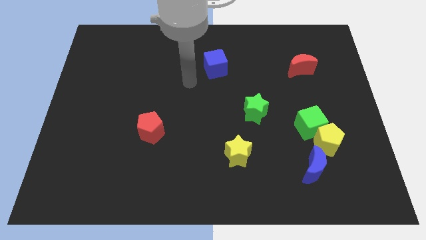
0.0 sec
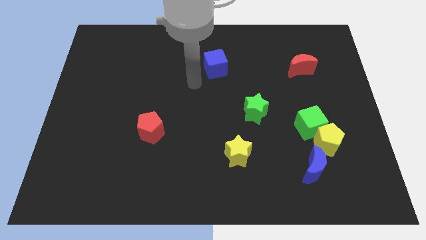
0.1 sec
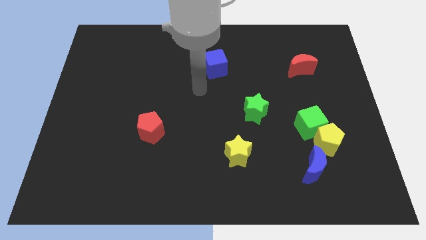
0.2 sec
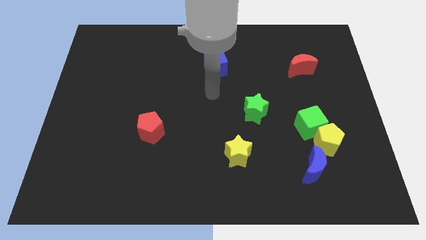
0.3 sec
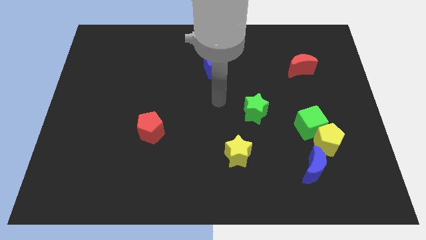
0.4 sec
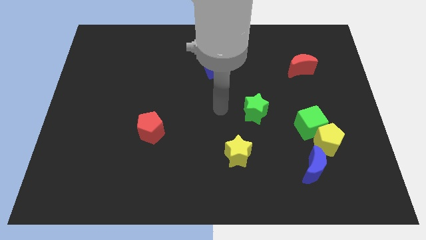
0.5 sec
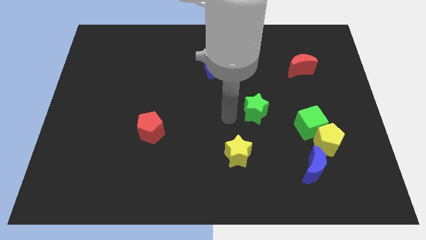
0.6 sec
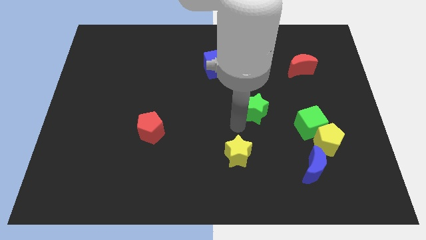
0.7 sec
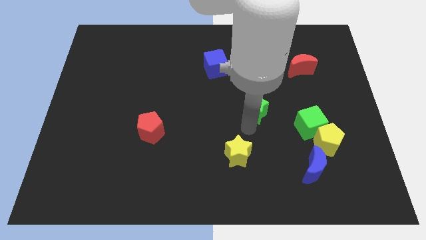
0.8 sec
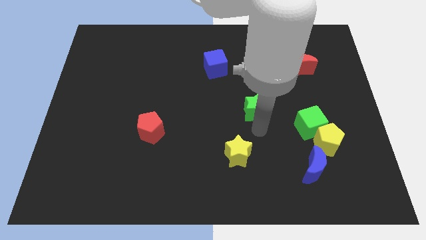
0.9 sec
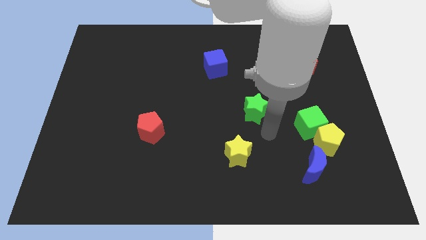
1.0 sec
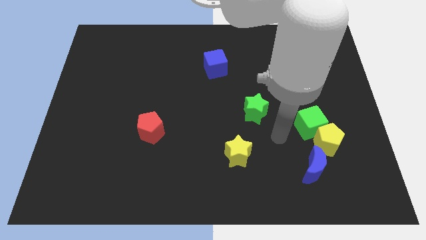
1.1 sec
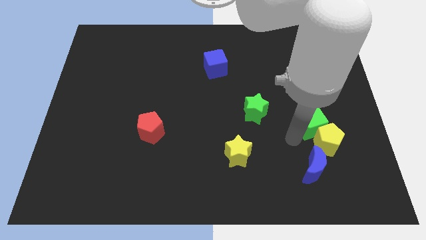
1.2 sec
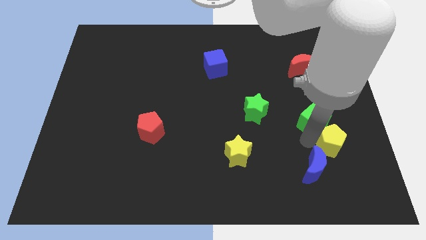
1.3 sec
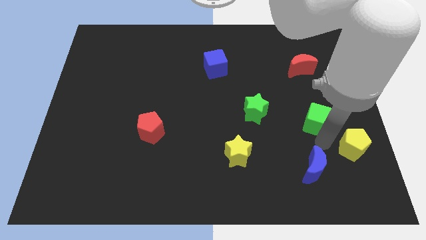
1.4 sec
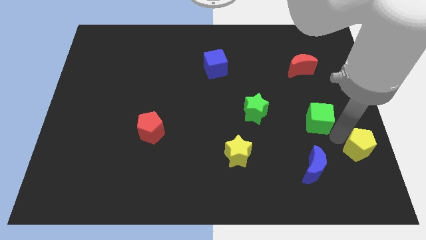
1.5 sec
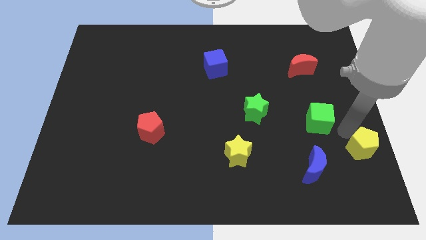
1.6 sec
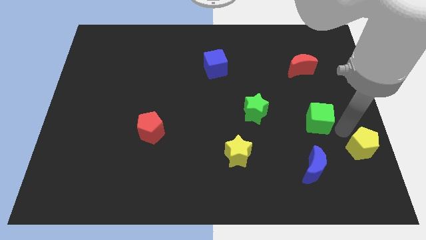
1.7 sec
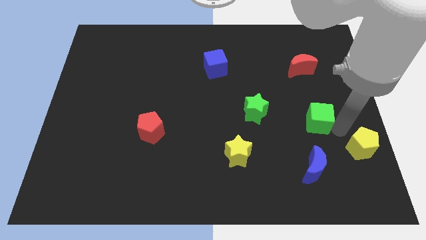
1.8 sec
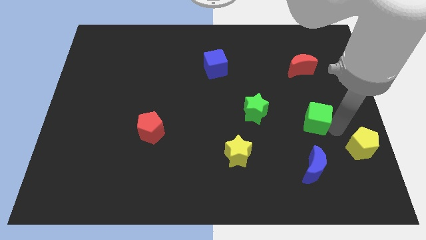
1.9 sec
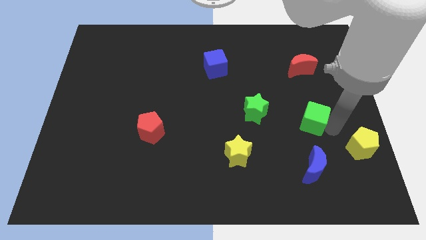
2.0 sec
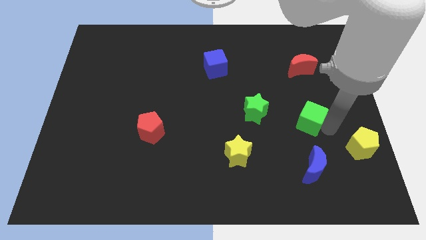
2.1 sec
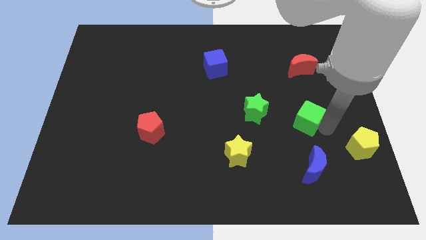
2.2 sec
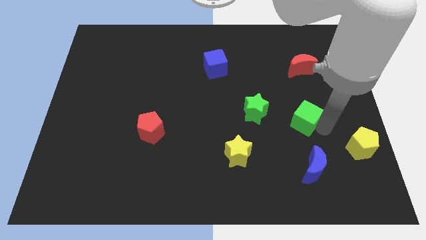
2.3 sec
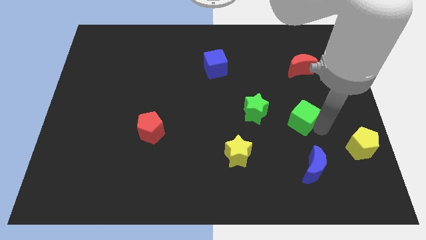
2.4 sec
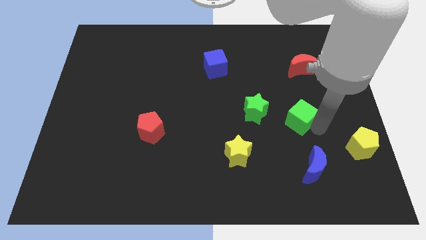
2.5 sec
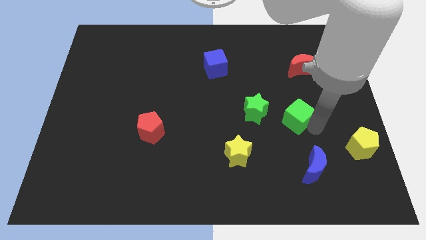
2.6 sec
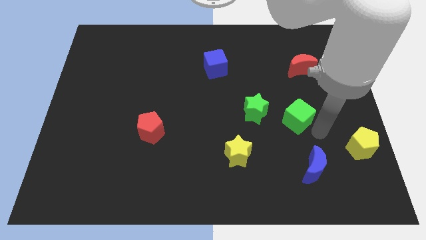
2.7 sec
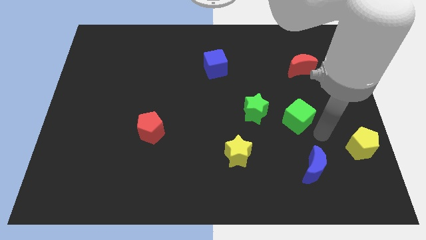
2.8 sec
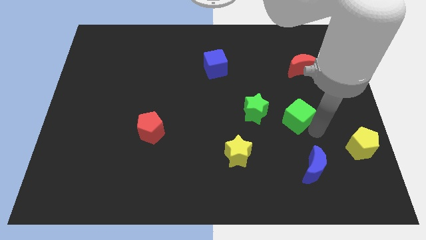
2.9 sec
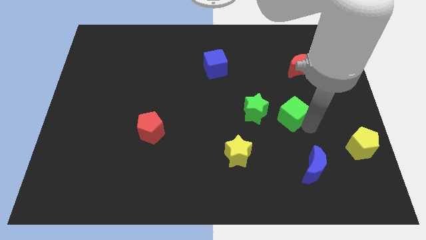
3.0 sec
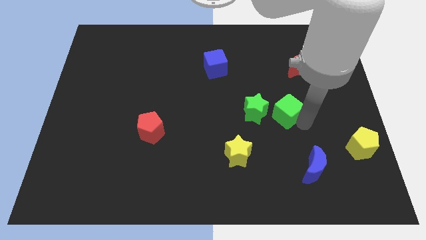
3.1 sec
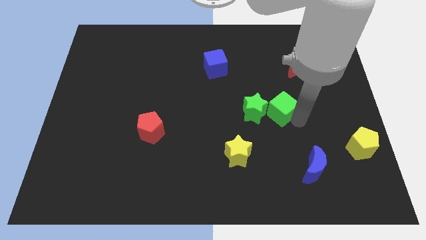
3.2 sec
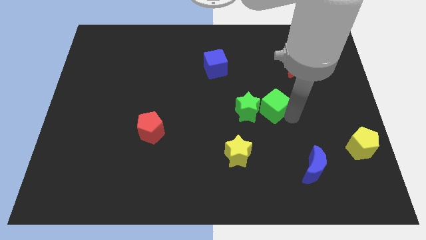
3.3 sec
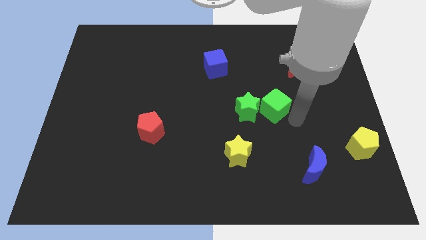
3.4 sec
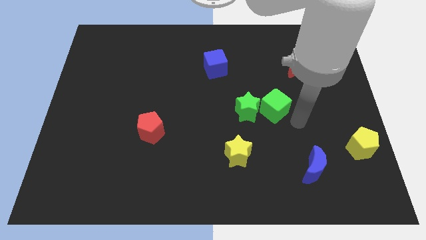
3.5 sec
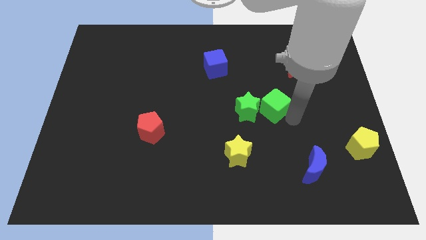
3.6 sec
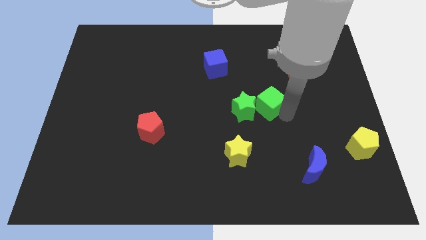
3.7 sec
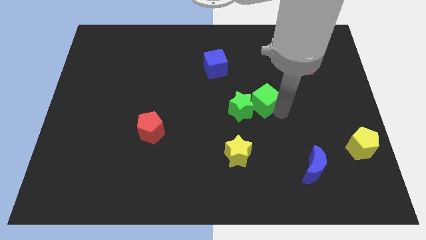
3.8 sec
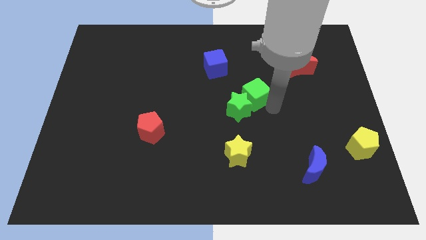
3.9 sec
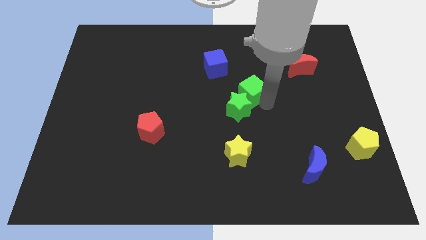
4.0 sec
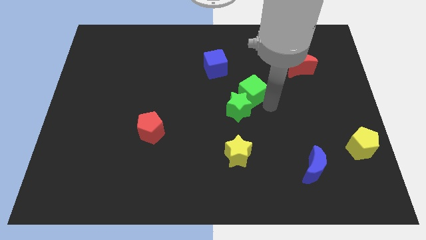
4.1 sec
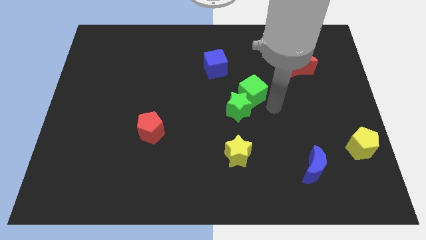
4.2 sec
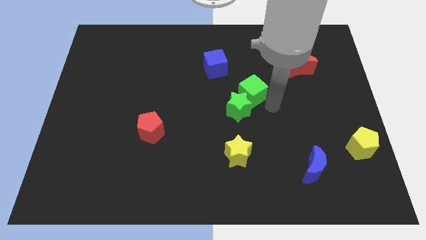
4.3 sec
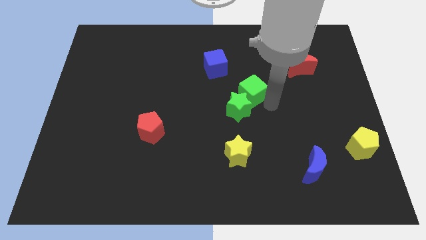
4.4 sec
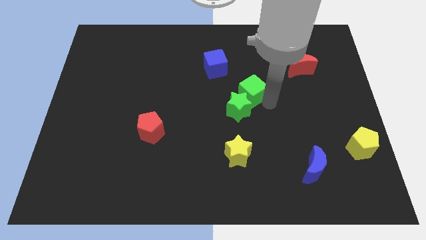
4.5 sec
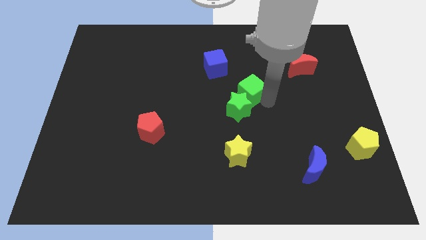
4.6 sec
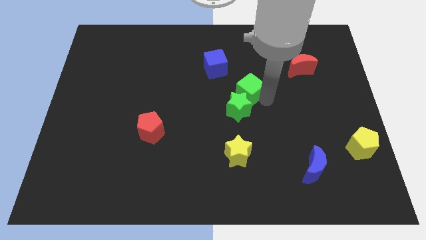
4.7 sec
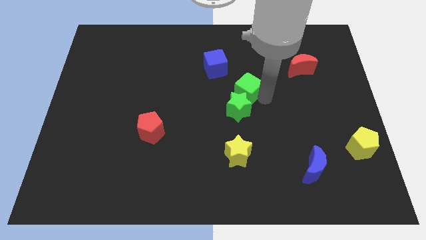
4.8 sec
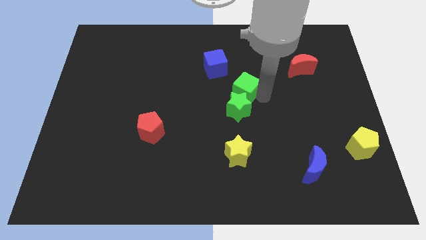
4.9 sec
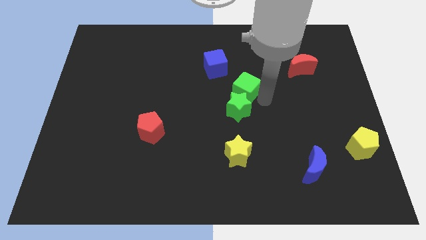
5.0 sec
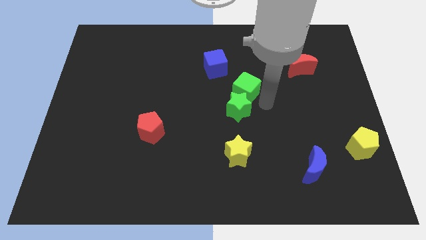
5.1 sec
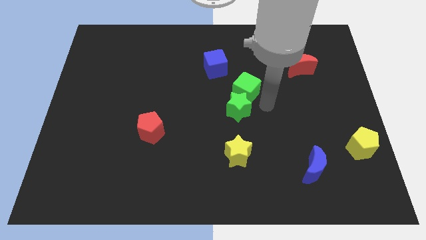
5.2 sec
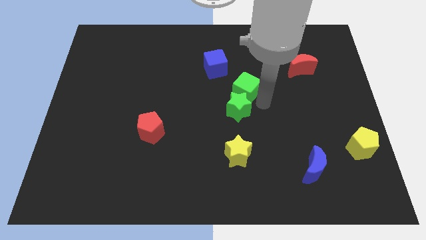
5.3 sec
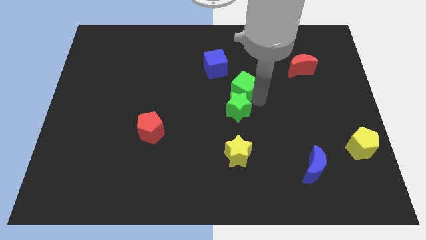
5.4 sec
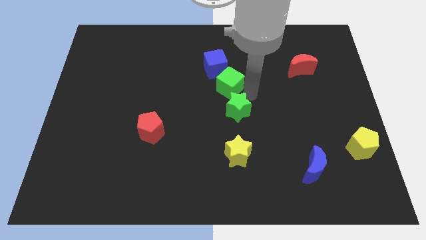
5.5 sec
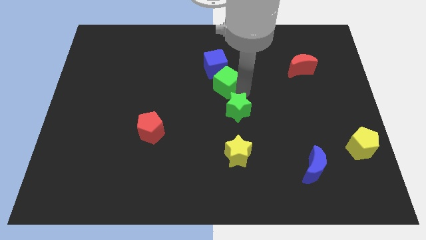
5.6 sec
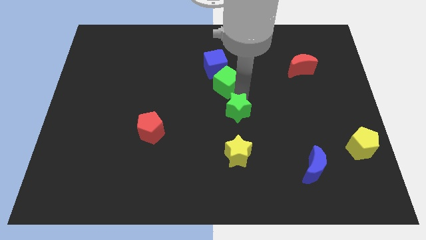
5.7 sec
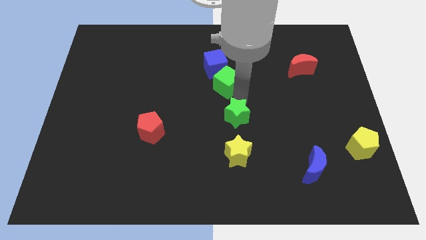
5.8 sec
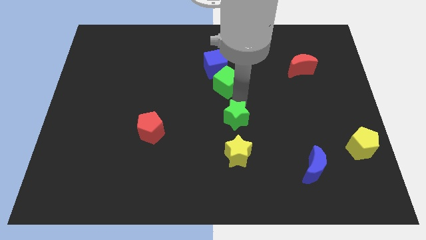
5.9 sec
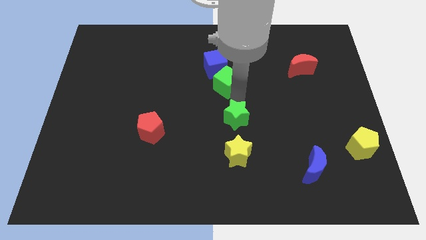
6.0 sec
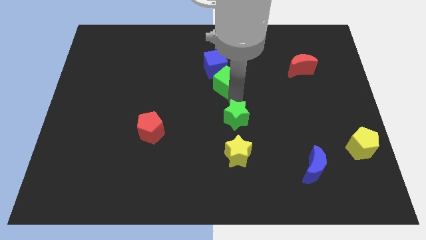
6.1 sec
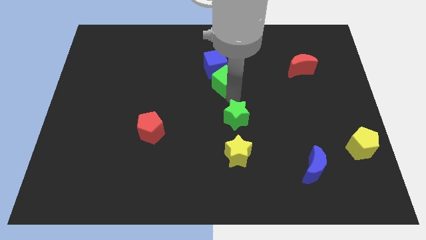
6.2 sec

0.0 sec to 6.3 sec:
push the green cube close to the blue cube
